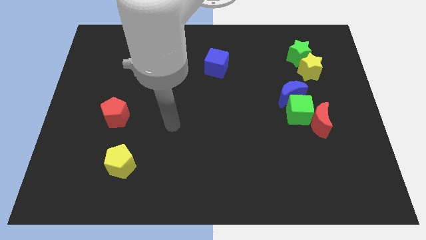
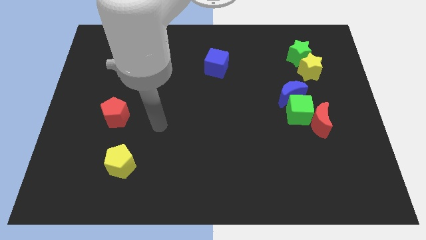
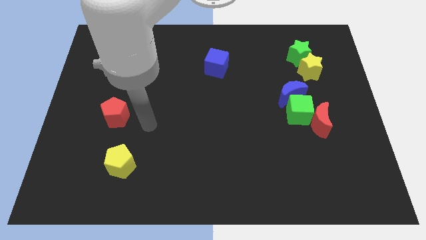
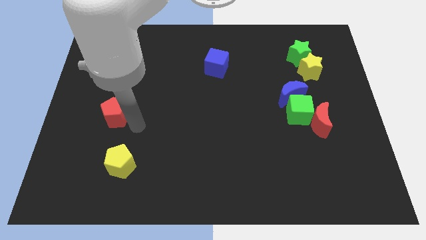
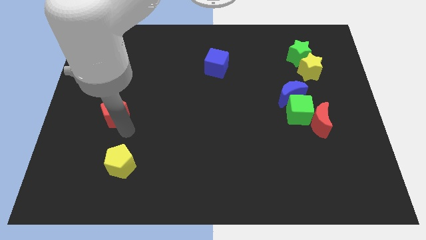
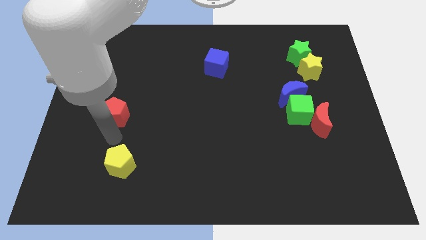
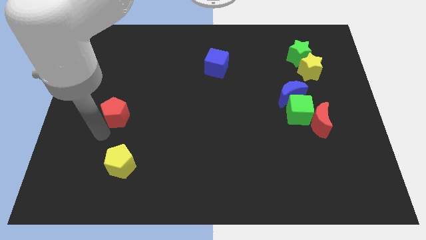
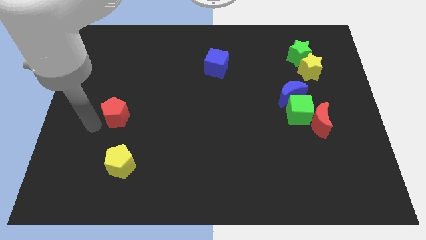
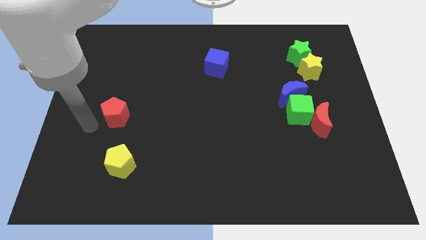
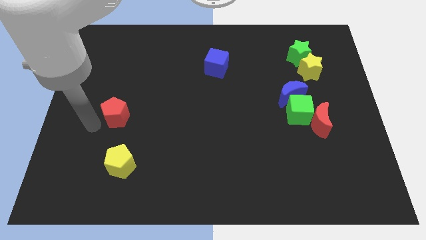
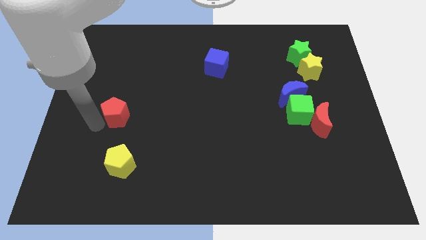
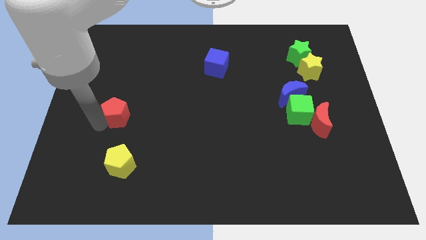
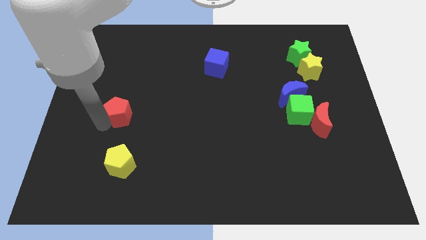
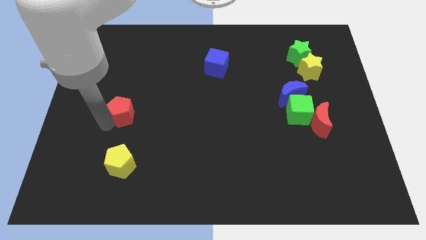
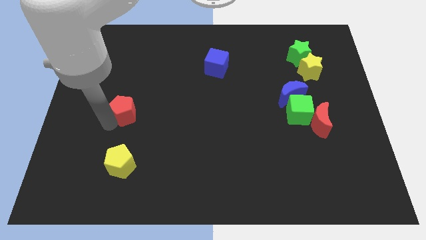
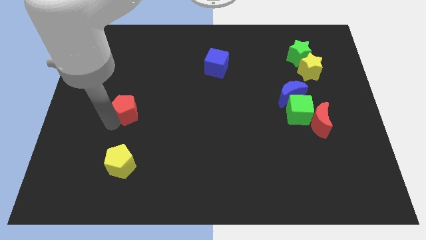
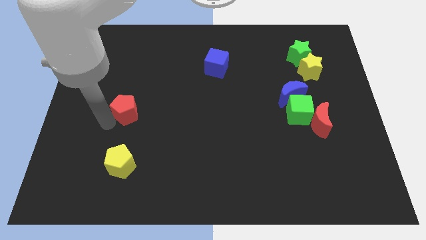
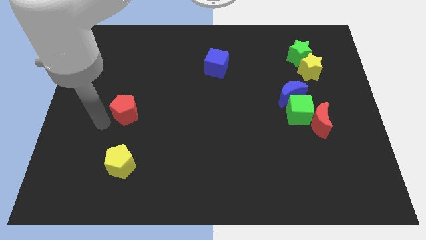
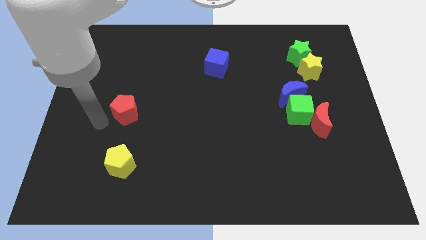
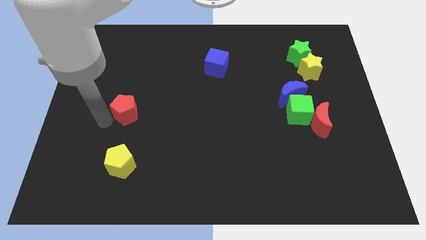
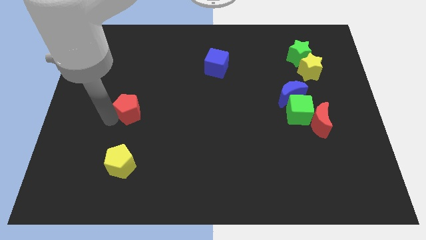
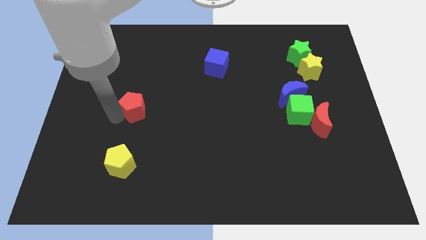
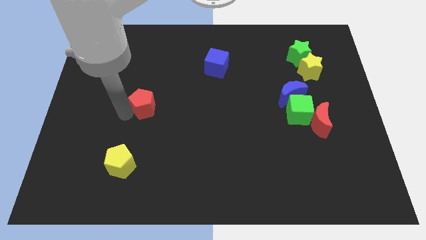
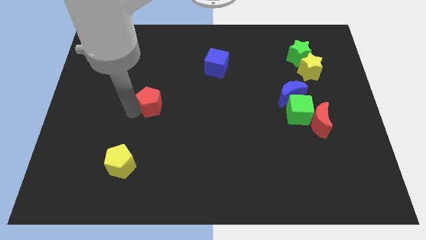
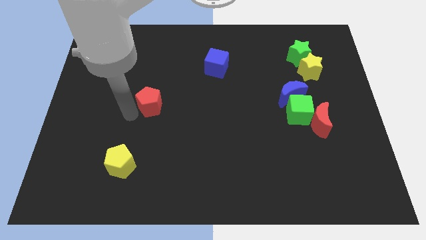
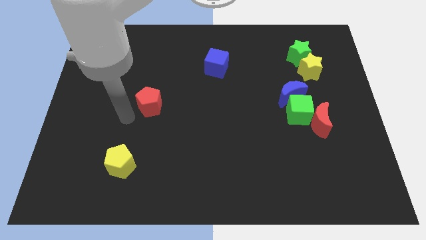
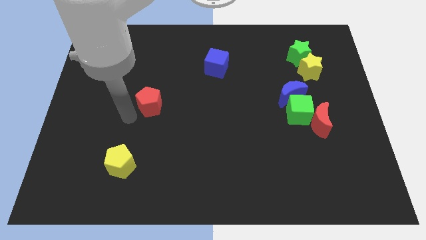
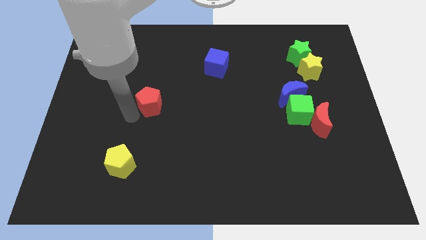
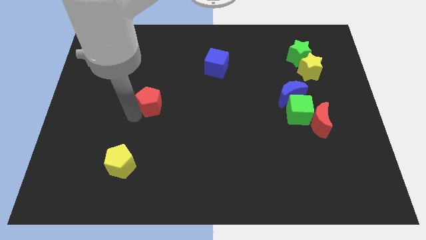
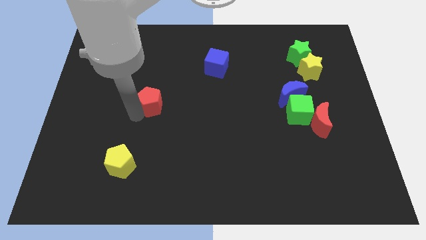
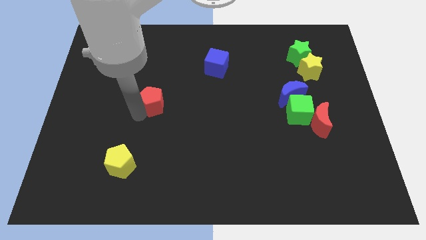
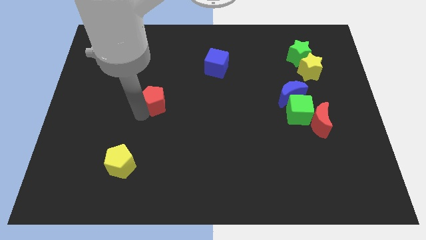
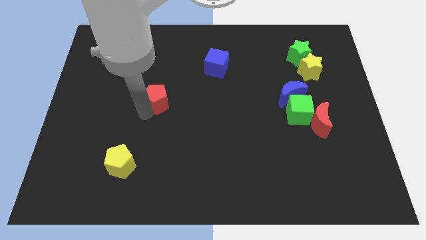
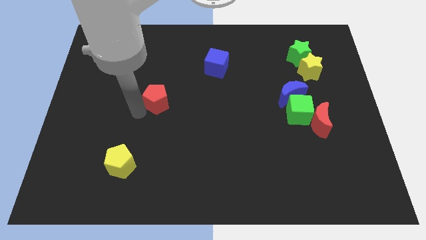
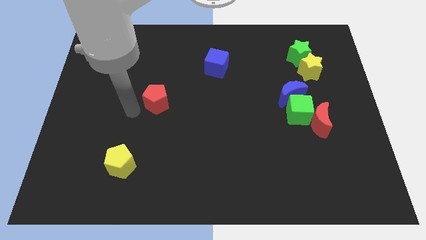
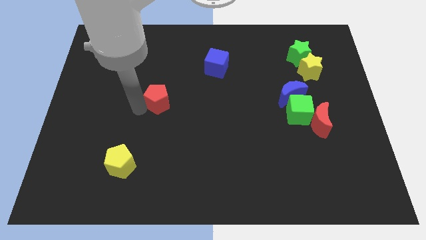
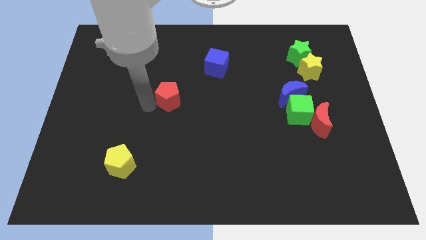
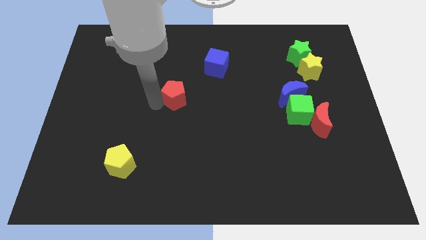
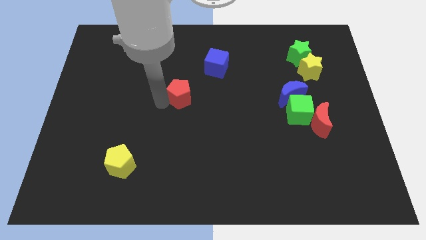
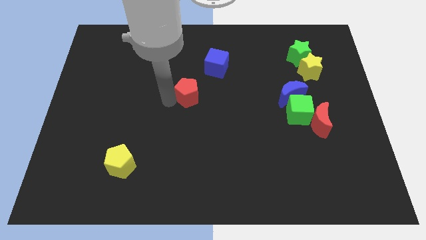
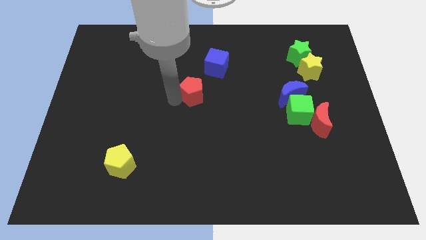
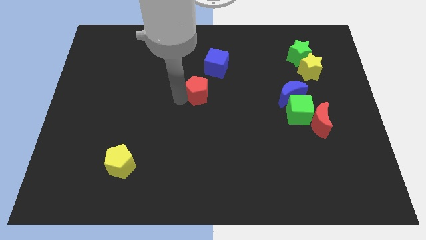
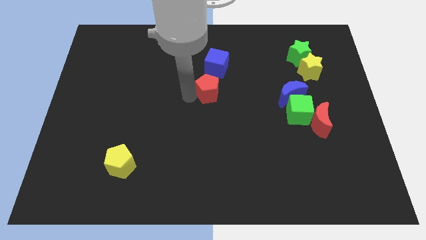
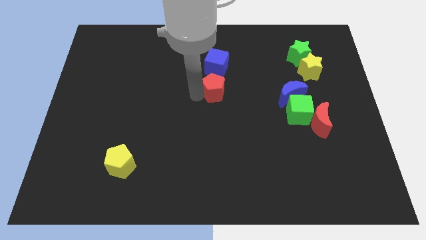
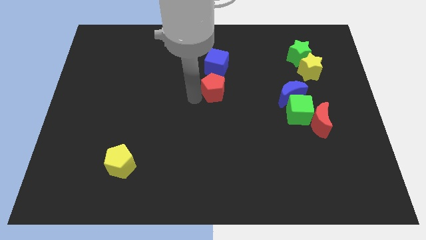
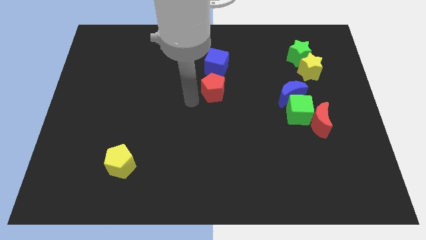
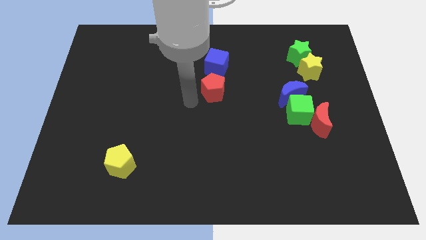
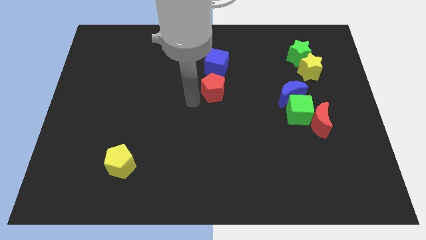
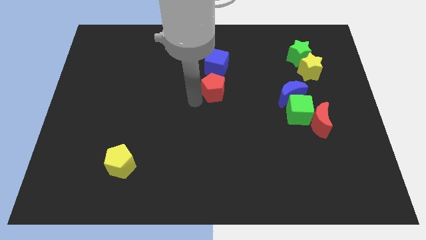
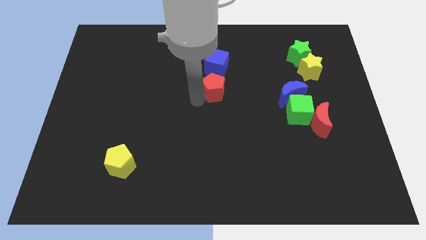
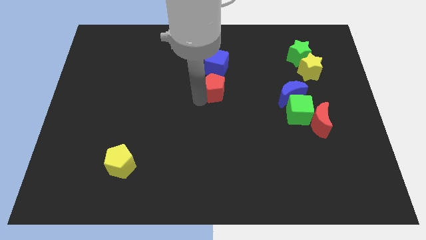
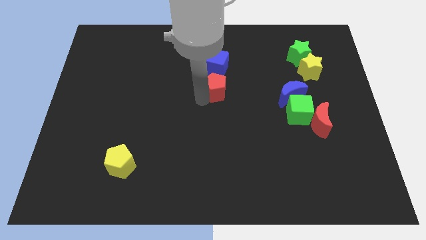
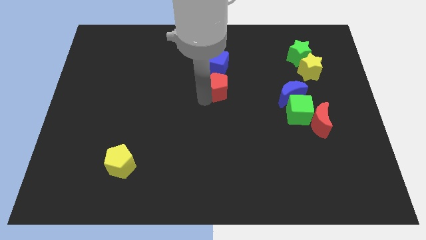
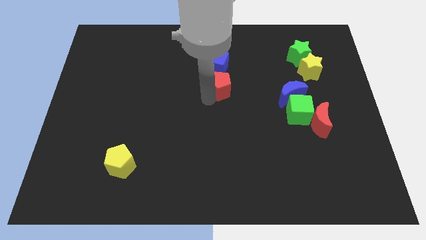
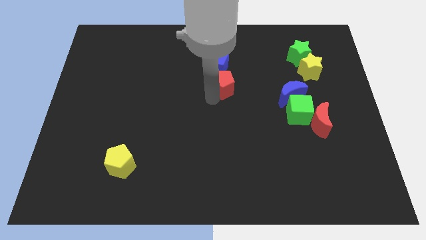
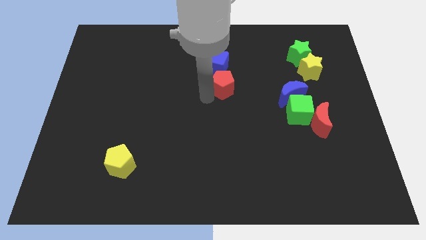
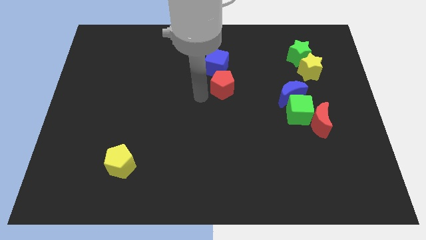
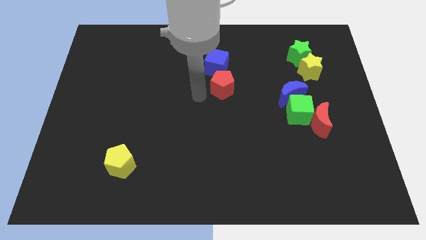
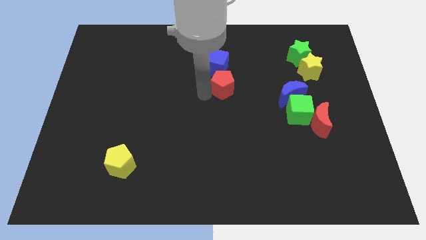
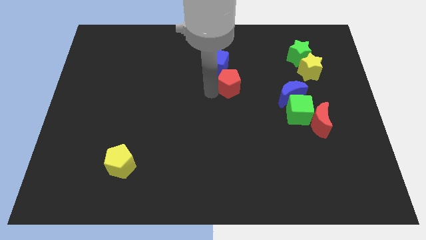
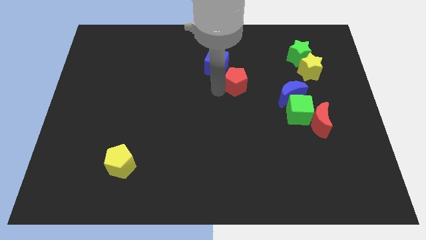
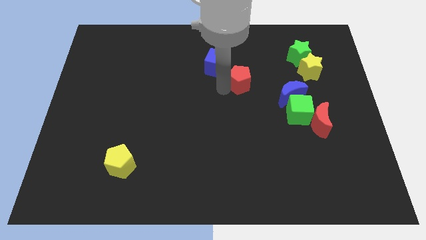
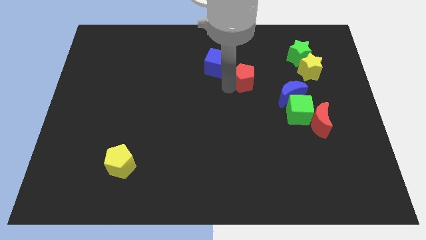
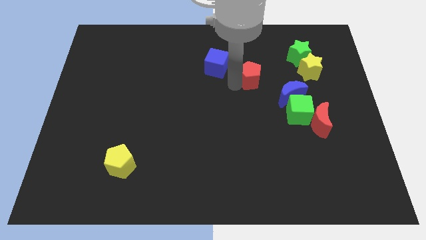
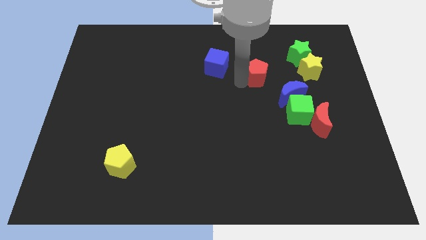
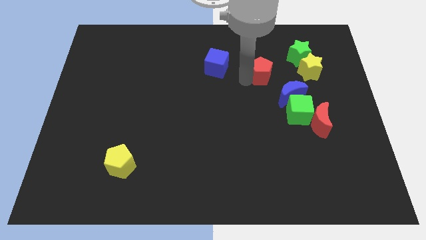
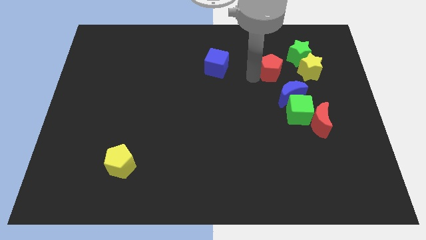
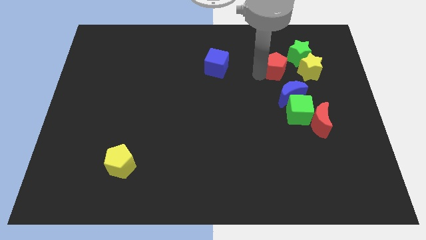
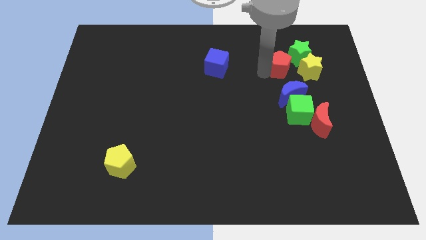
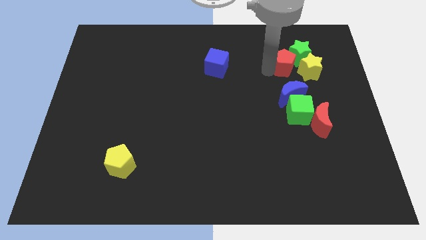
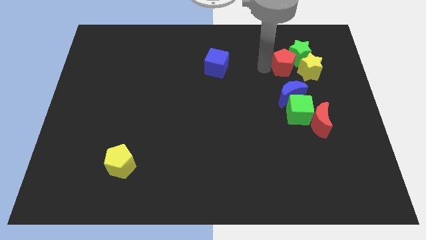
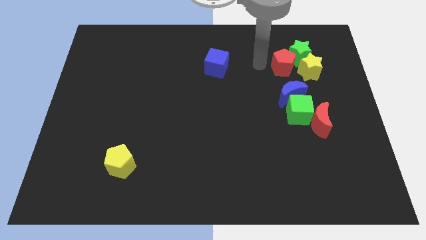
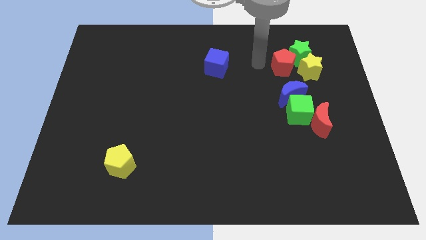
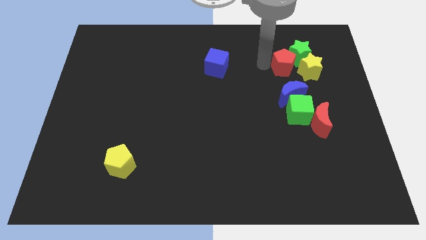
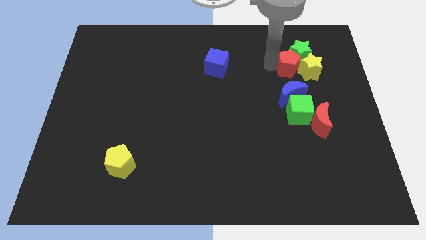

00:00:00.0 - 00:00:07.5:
slide the red pentagon next to the yellow star
